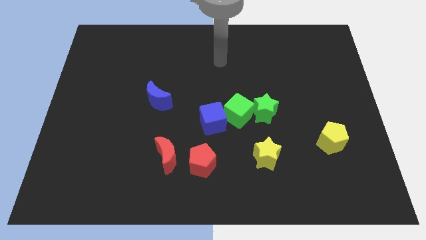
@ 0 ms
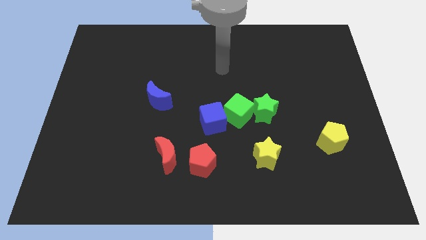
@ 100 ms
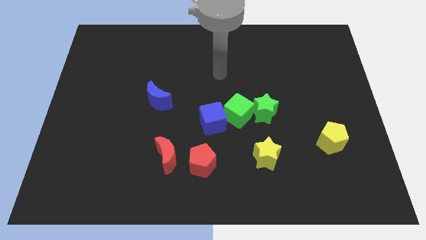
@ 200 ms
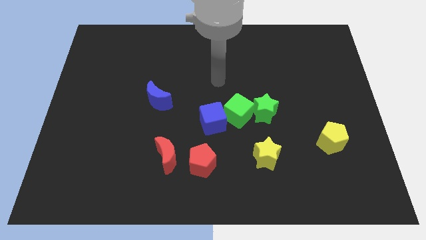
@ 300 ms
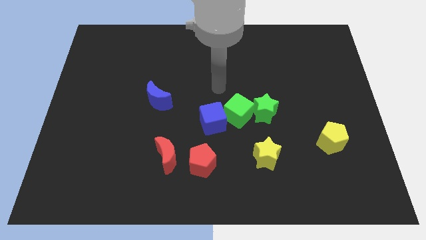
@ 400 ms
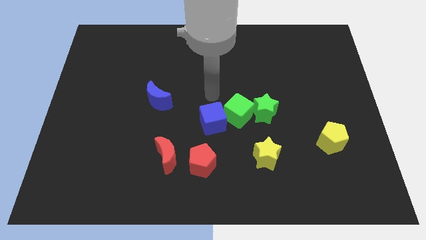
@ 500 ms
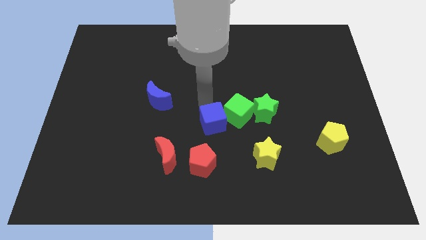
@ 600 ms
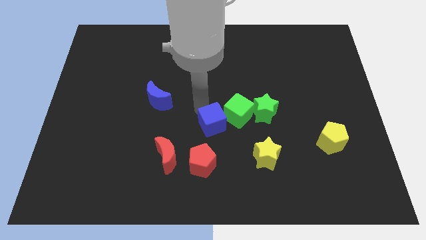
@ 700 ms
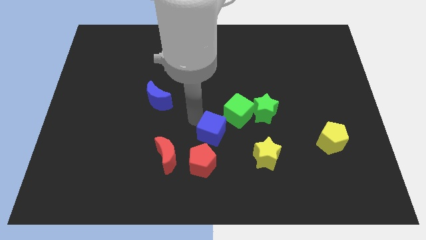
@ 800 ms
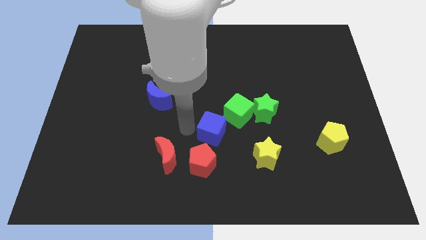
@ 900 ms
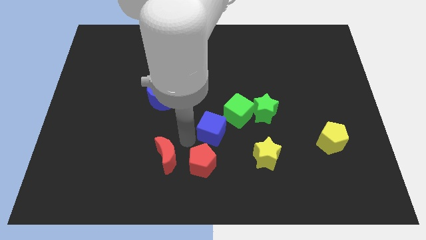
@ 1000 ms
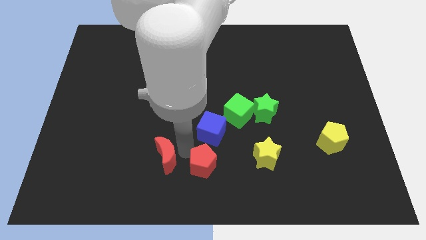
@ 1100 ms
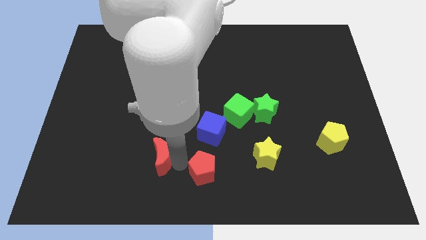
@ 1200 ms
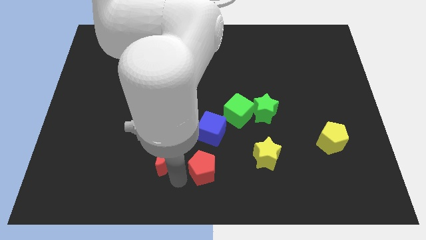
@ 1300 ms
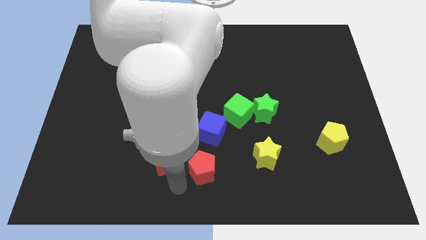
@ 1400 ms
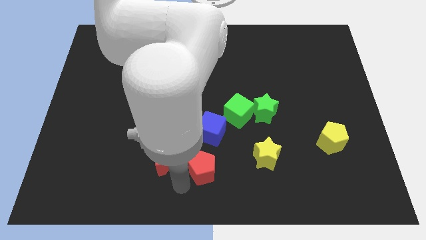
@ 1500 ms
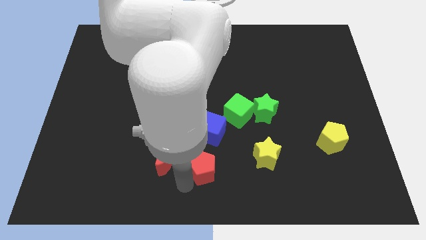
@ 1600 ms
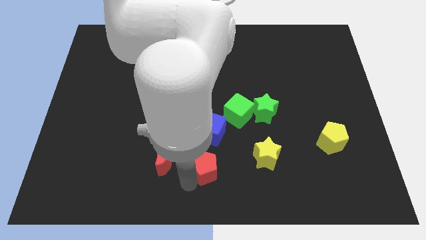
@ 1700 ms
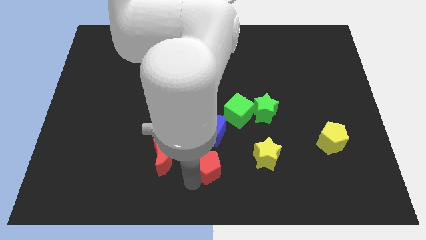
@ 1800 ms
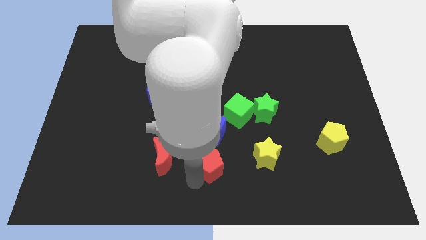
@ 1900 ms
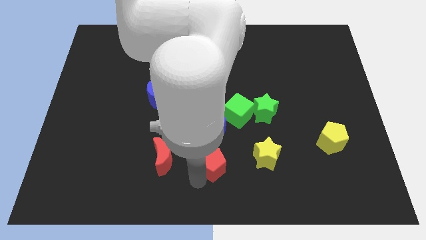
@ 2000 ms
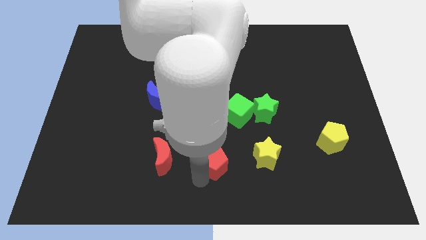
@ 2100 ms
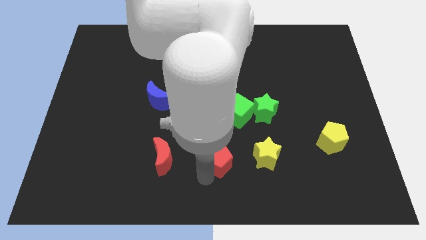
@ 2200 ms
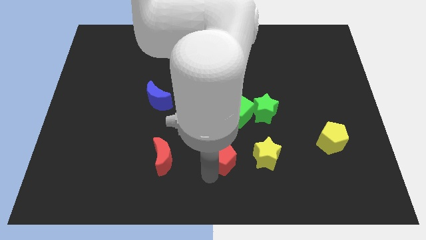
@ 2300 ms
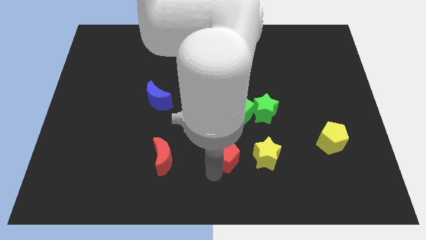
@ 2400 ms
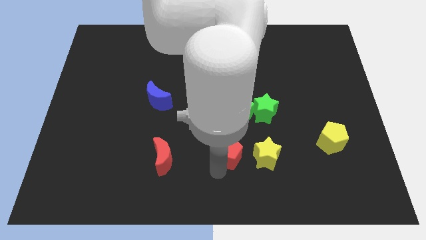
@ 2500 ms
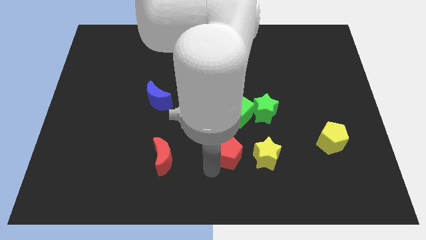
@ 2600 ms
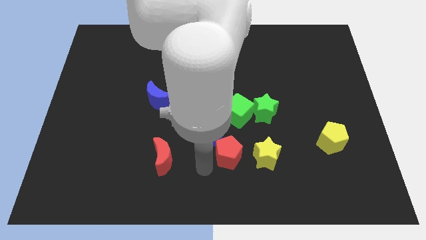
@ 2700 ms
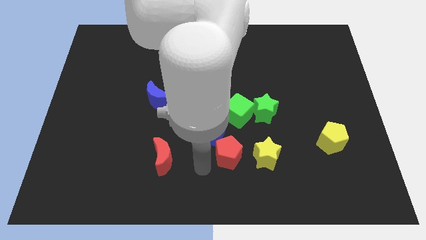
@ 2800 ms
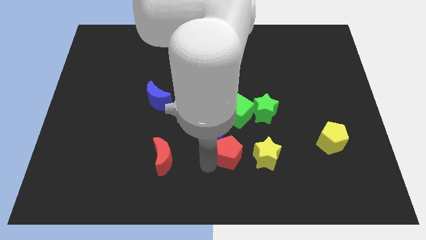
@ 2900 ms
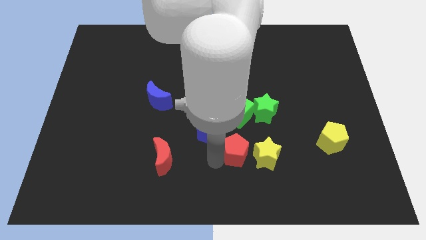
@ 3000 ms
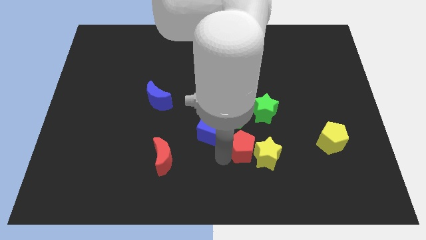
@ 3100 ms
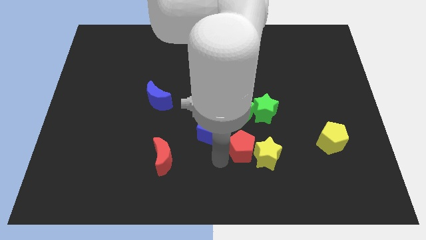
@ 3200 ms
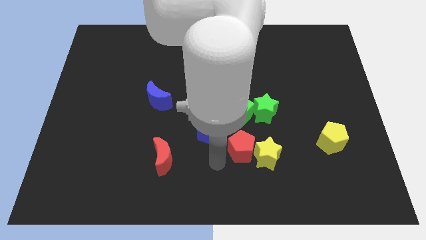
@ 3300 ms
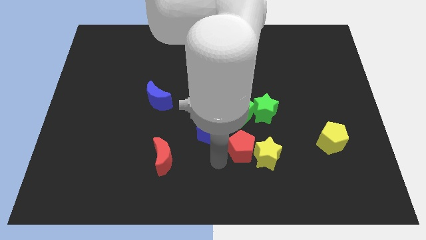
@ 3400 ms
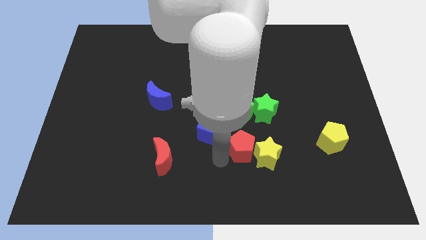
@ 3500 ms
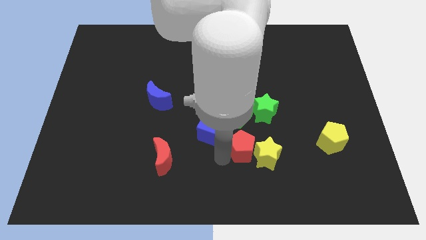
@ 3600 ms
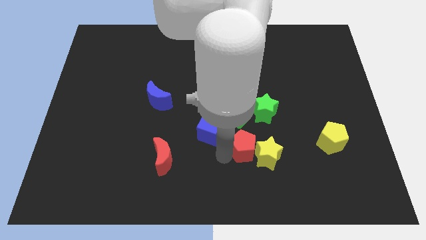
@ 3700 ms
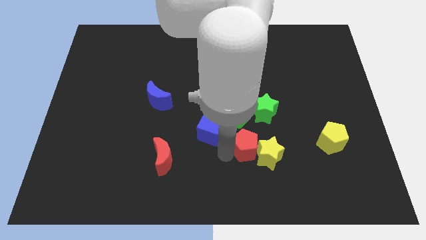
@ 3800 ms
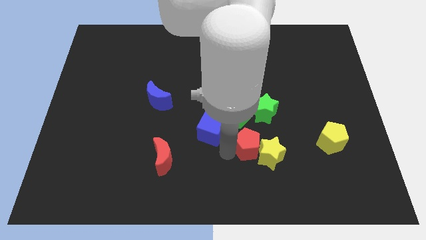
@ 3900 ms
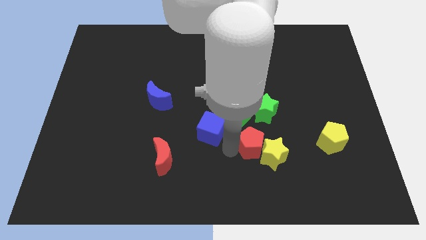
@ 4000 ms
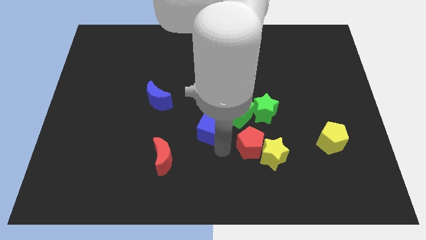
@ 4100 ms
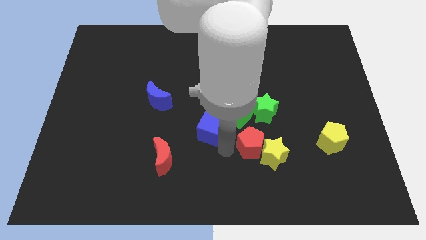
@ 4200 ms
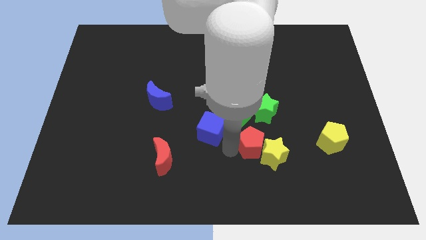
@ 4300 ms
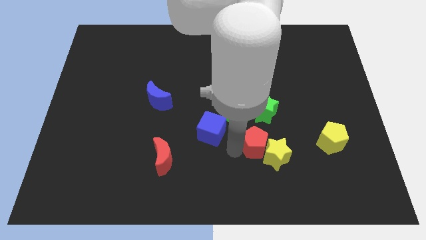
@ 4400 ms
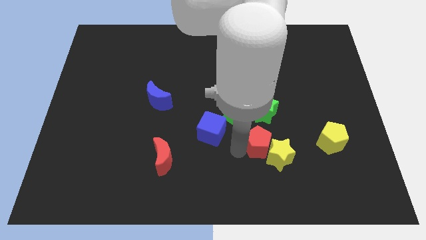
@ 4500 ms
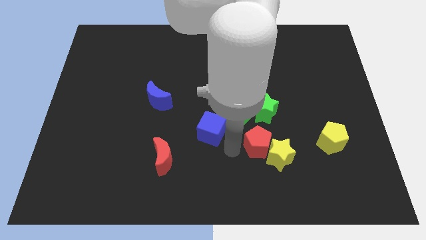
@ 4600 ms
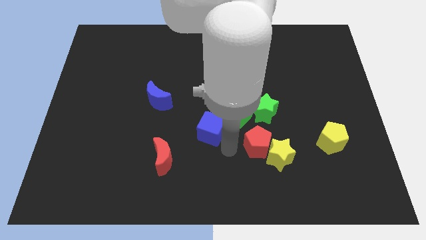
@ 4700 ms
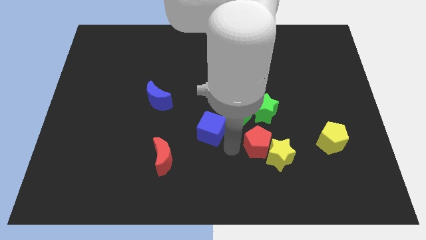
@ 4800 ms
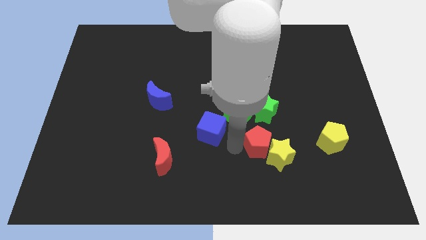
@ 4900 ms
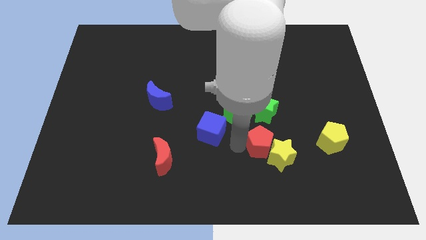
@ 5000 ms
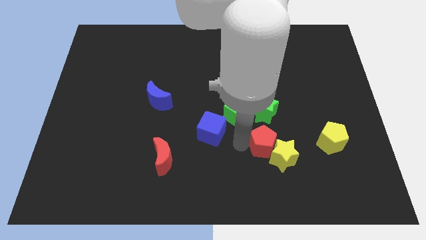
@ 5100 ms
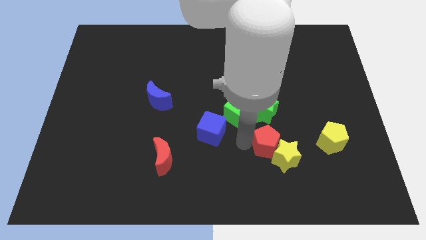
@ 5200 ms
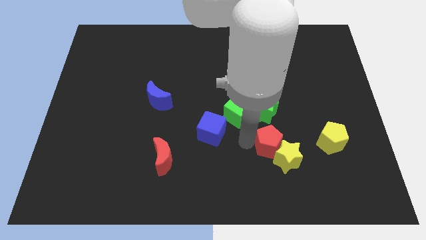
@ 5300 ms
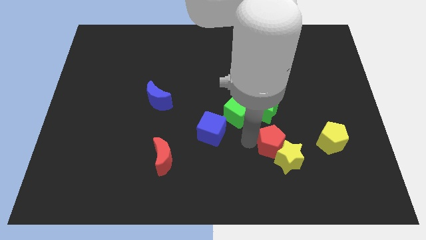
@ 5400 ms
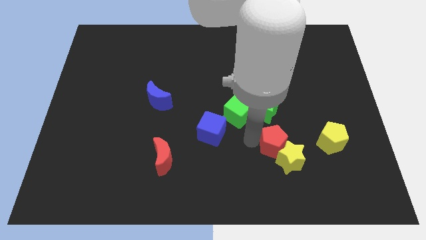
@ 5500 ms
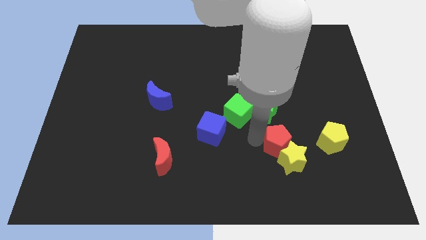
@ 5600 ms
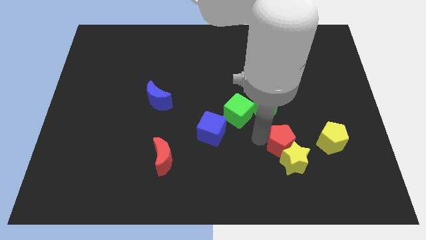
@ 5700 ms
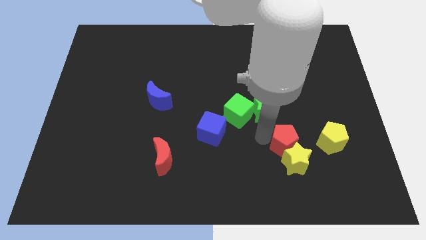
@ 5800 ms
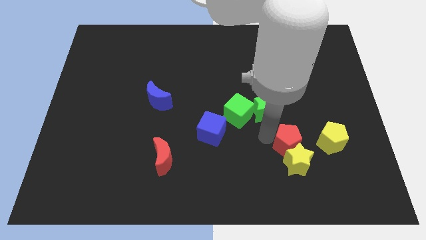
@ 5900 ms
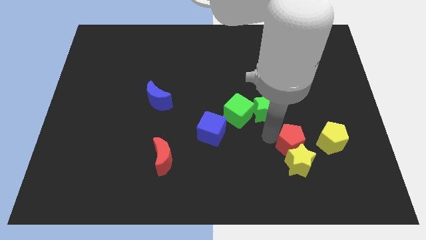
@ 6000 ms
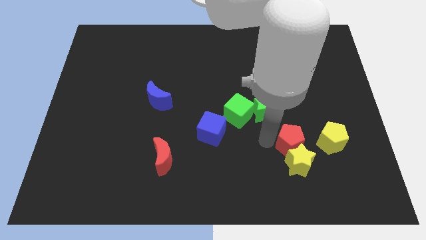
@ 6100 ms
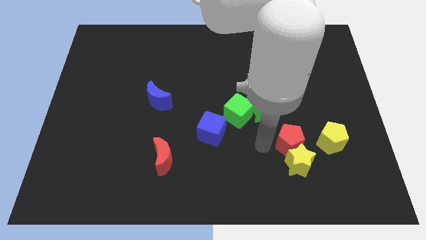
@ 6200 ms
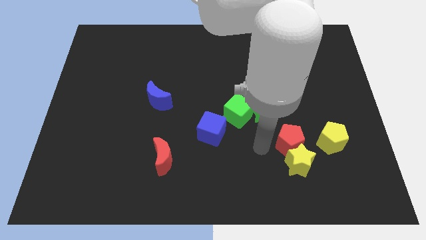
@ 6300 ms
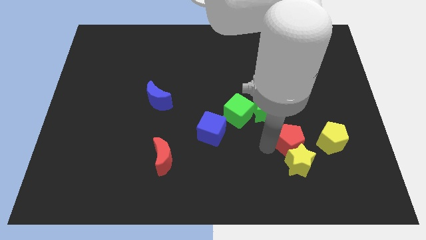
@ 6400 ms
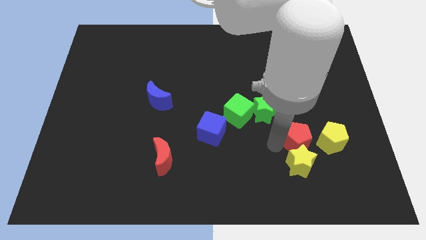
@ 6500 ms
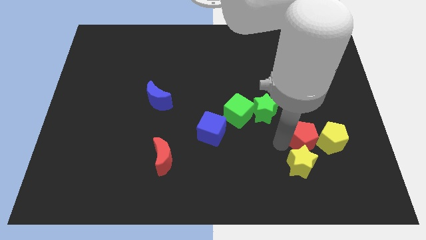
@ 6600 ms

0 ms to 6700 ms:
move the red pentagon next to the yellow pentagon
